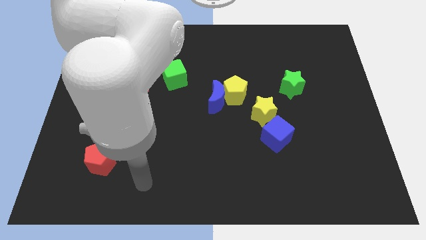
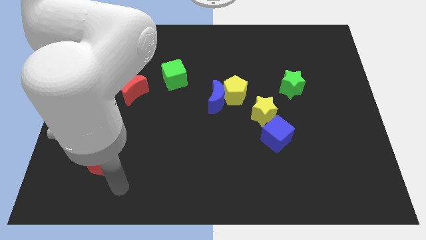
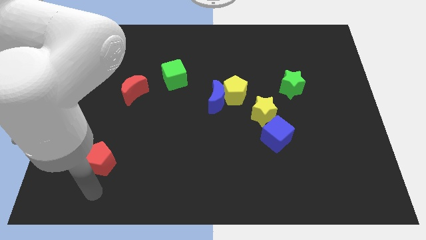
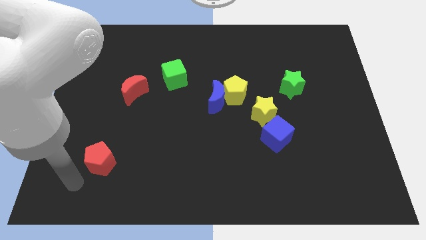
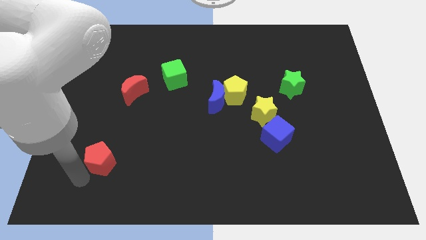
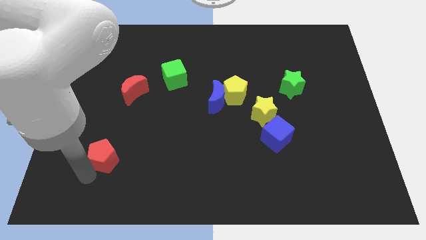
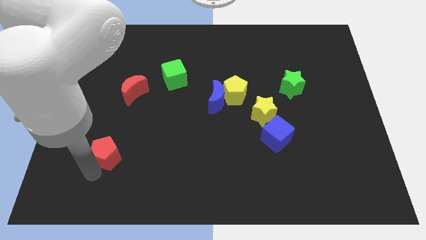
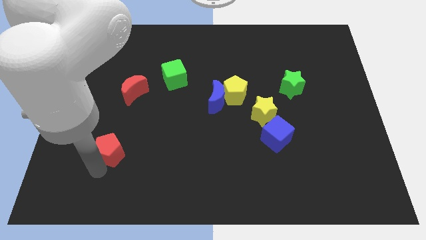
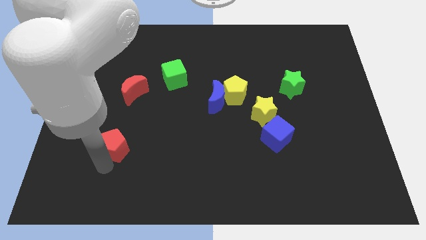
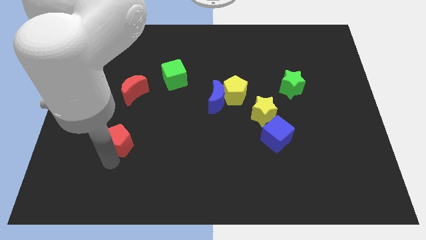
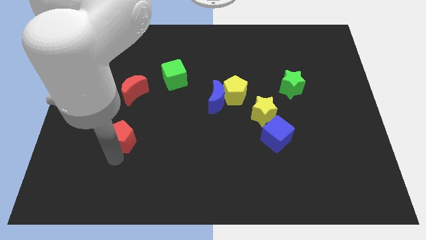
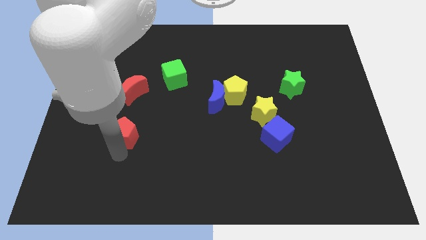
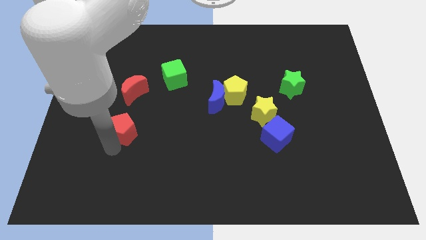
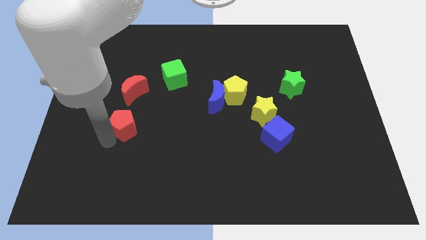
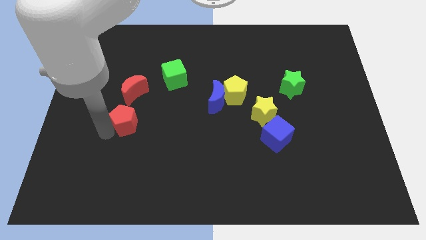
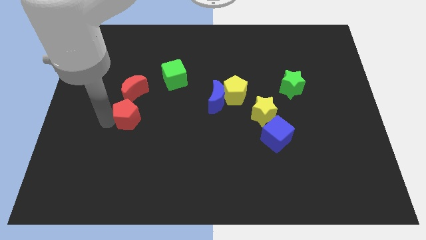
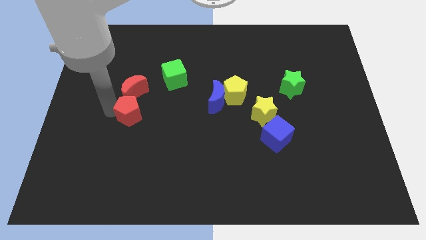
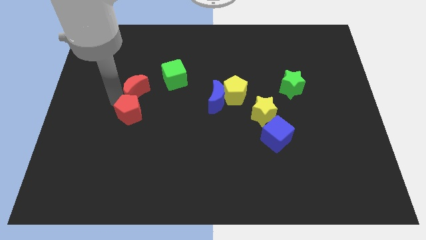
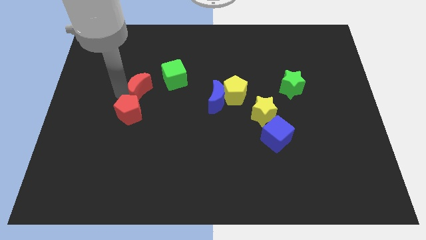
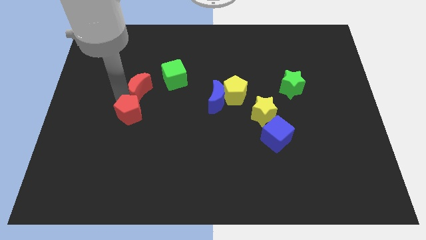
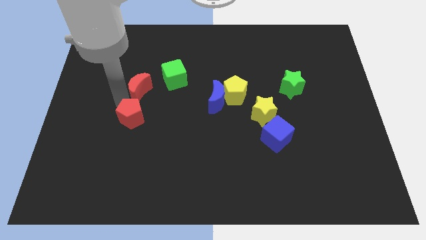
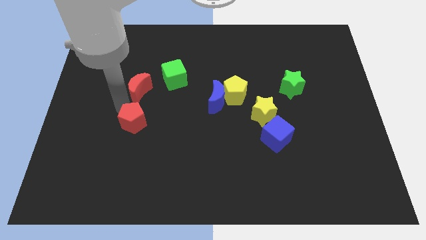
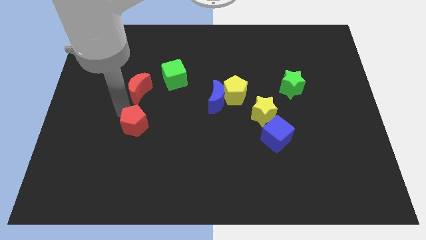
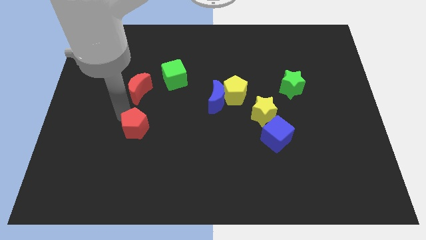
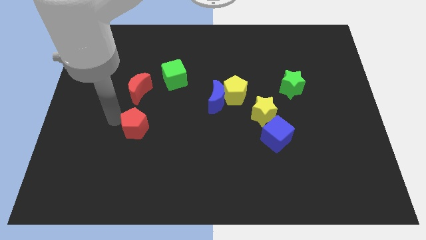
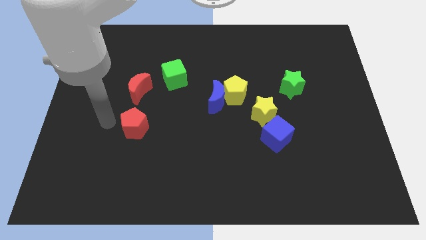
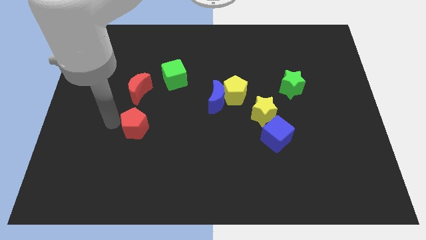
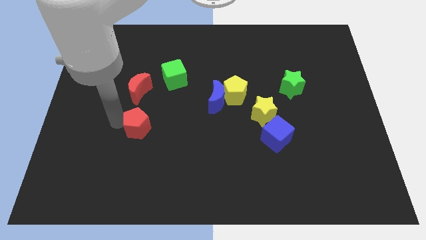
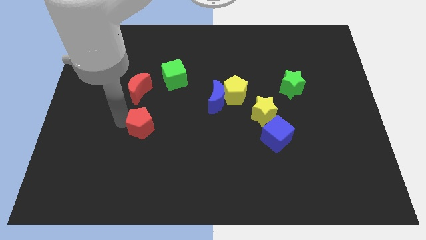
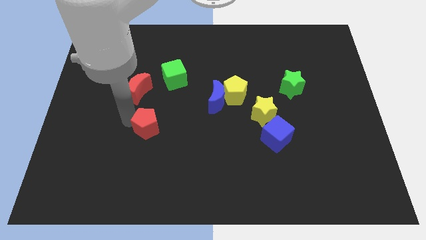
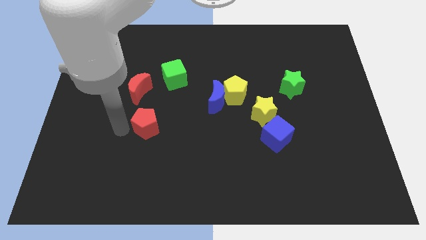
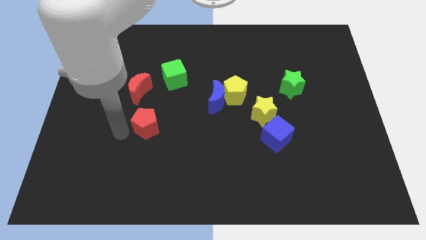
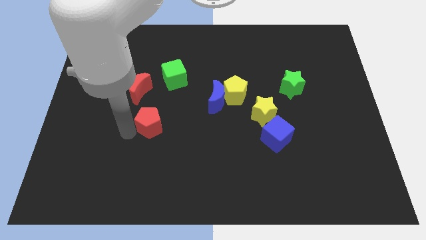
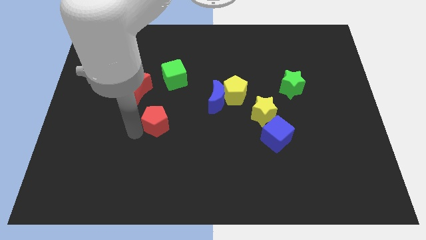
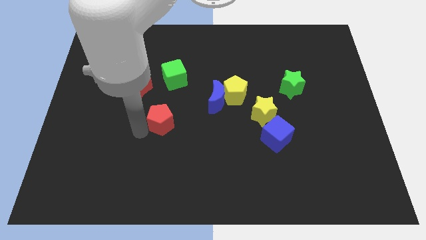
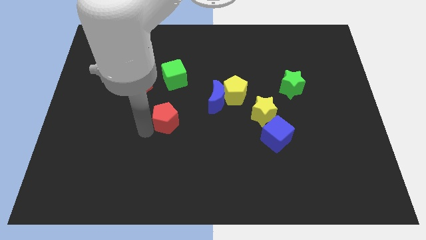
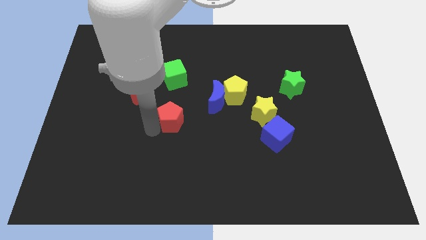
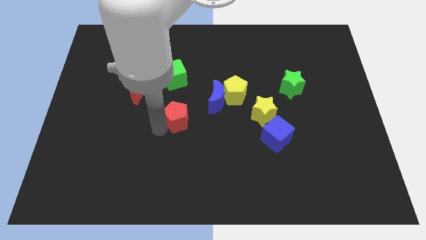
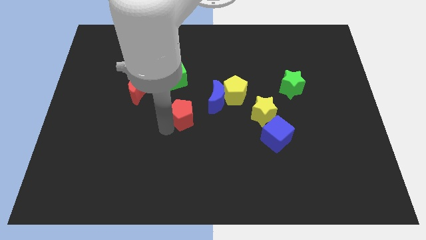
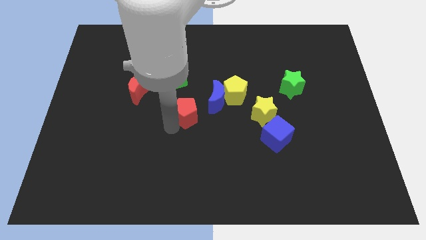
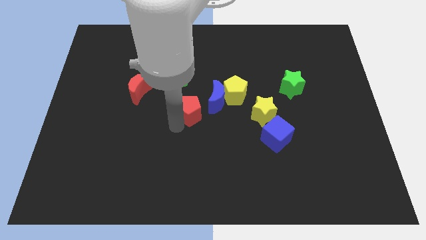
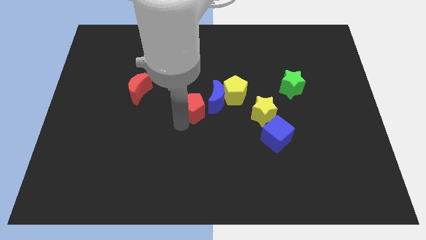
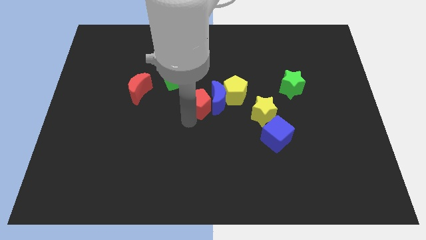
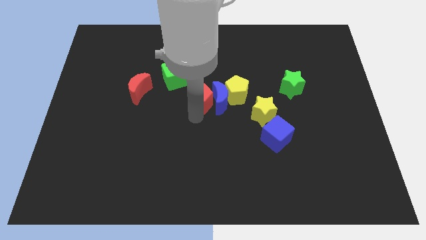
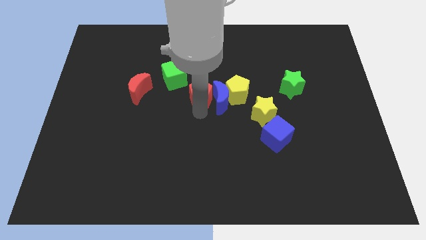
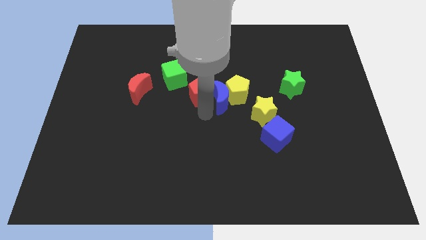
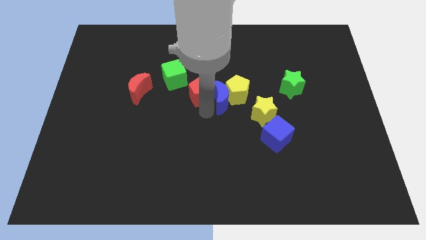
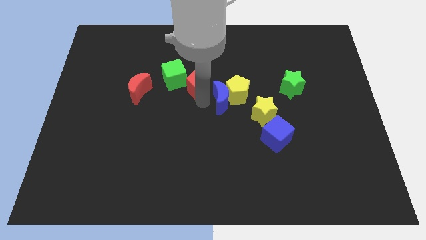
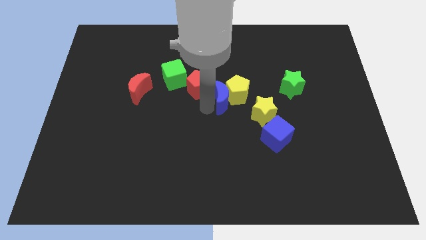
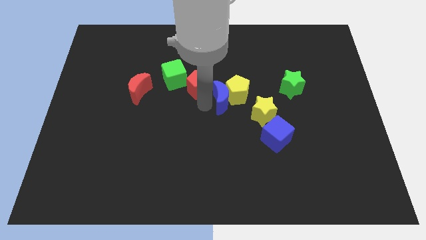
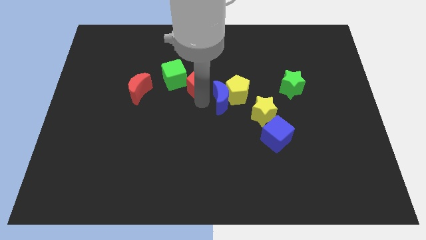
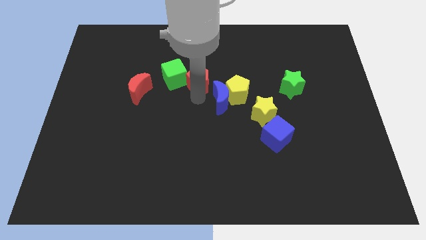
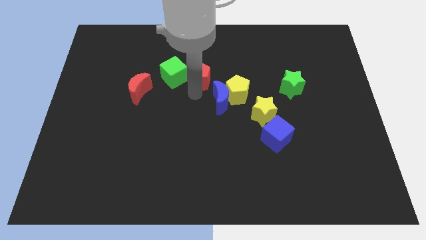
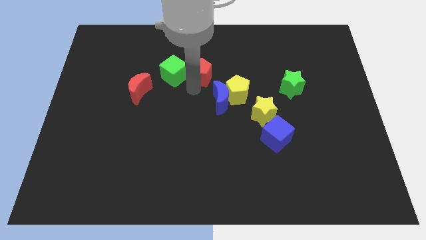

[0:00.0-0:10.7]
slide the red pentagon diagonally up and to the right of the green cube

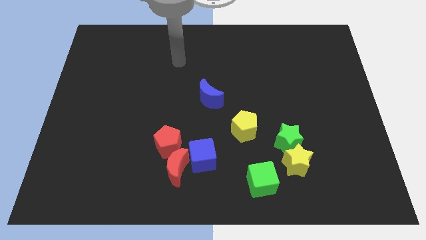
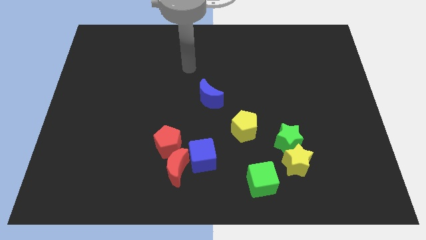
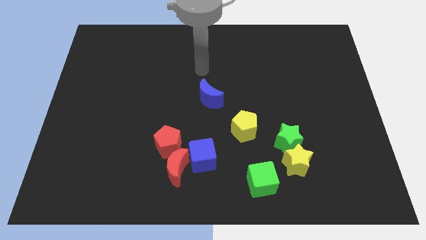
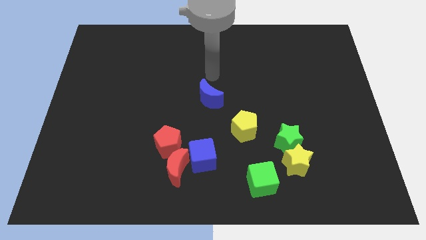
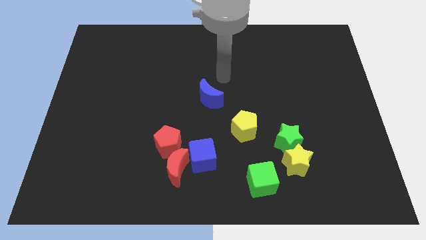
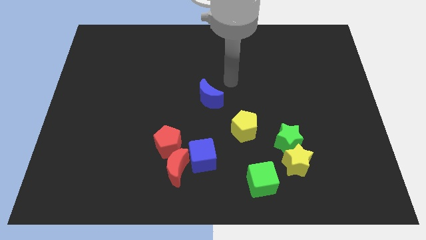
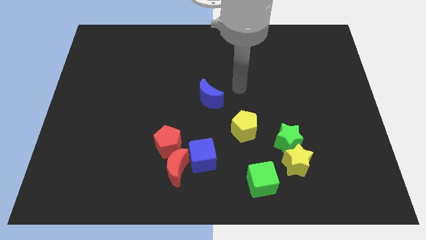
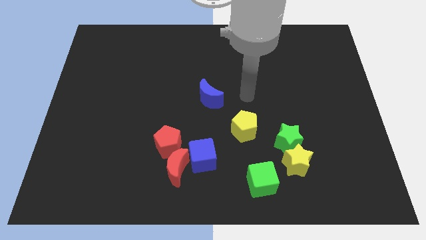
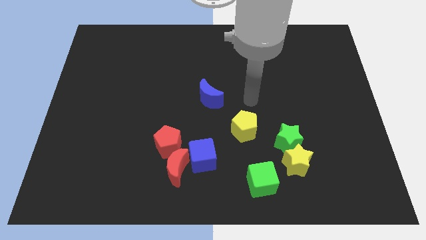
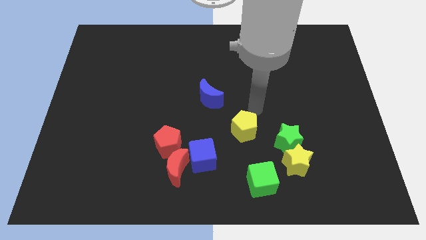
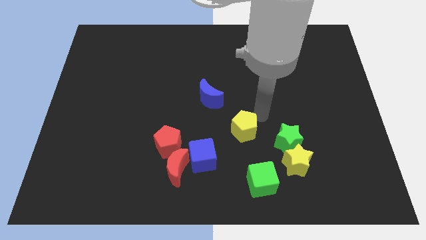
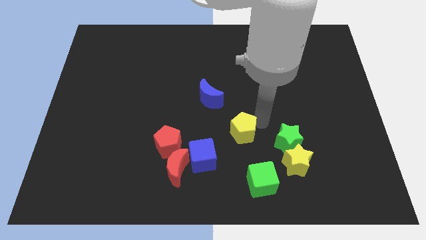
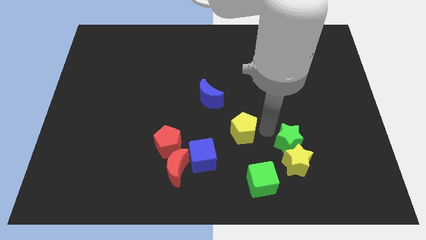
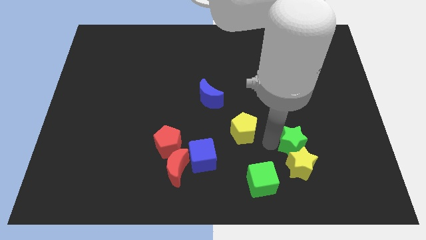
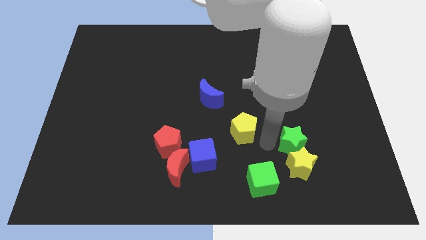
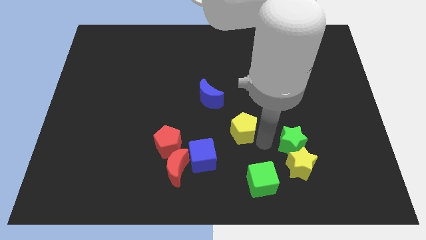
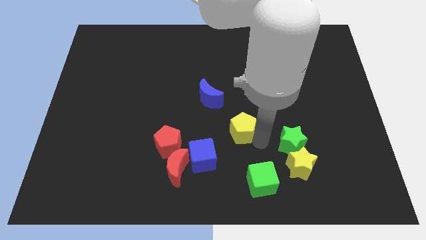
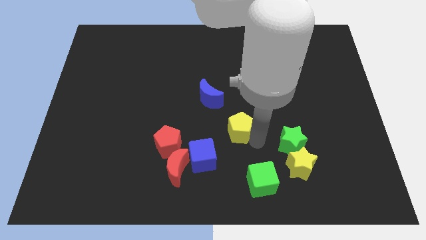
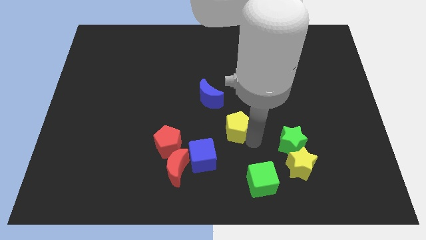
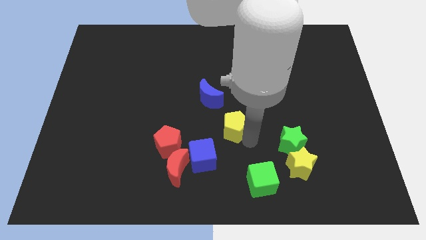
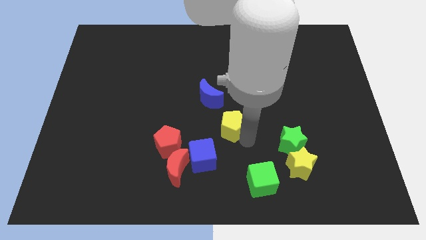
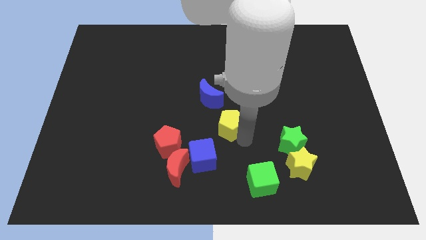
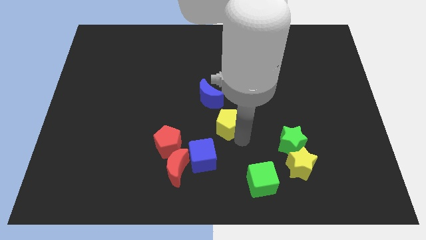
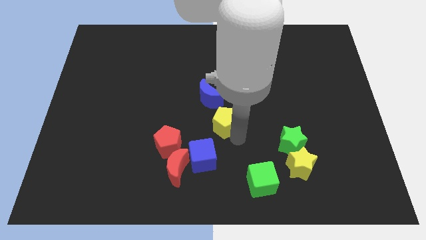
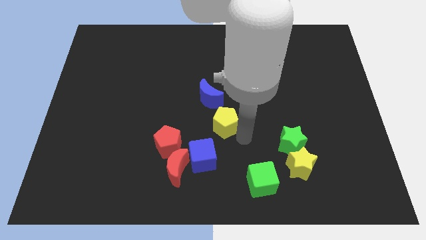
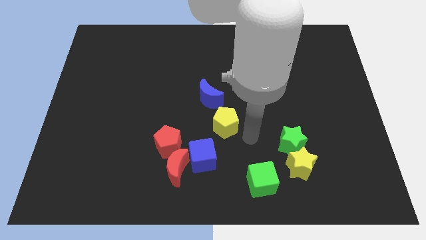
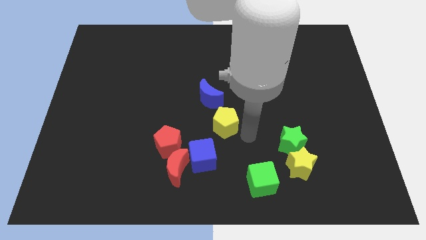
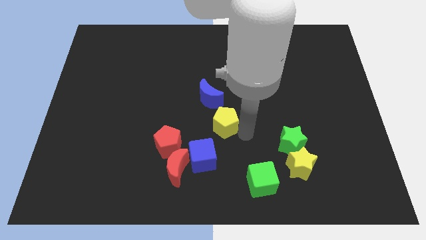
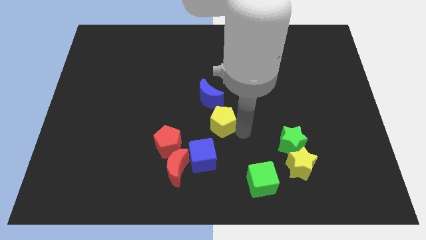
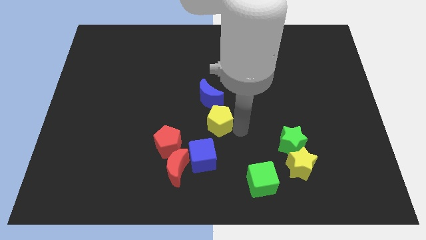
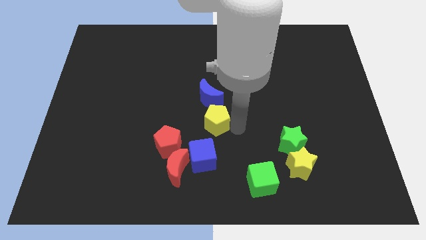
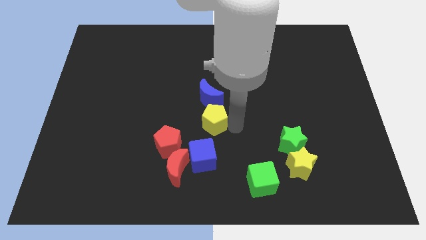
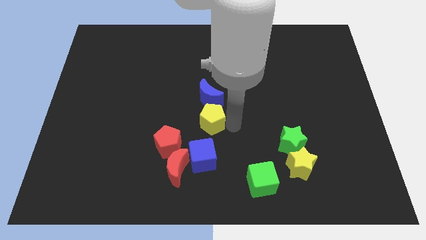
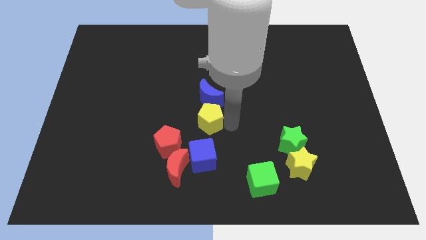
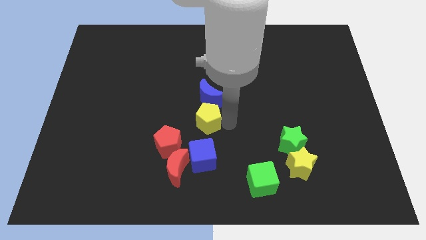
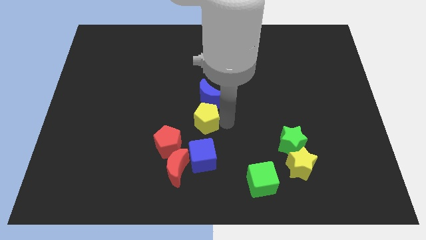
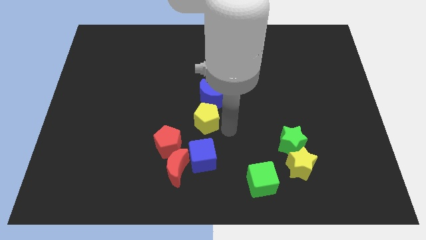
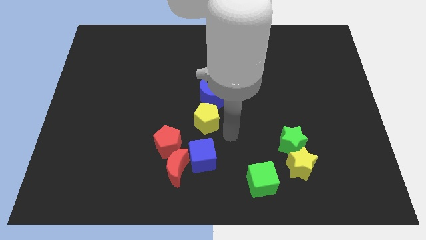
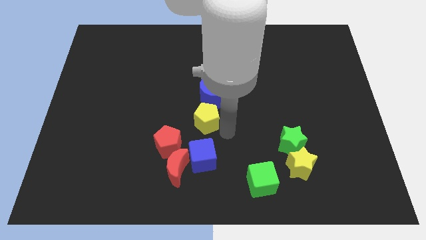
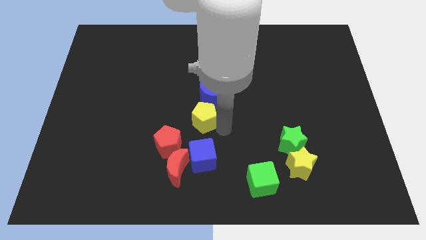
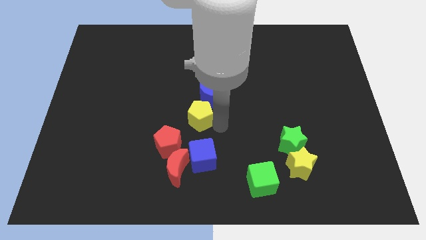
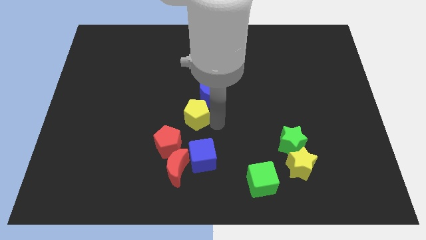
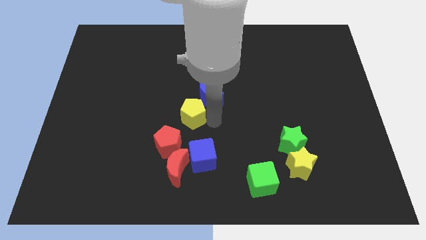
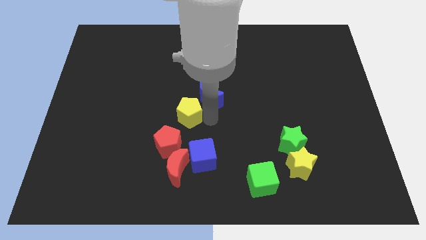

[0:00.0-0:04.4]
push the yellow pentagon left of the blue moon
